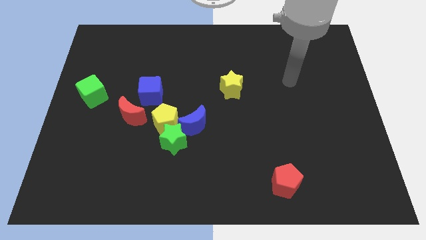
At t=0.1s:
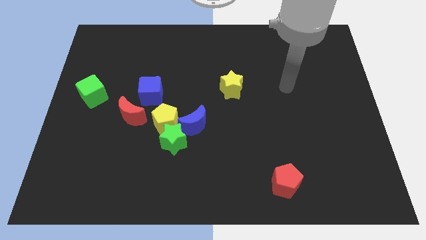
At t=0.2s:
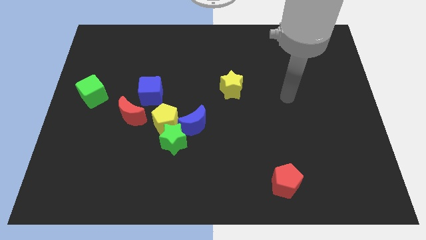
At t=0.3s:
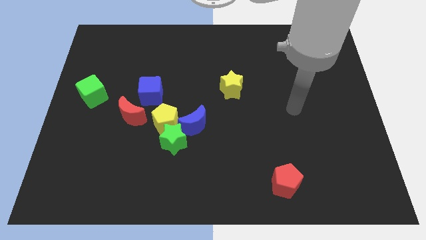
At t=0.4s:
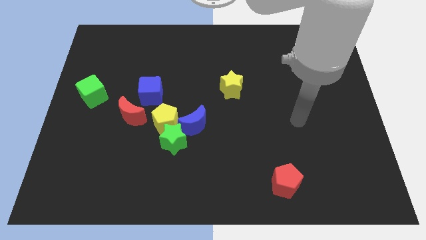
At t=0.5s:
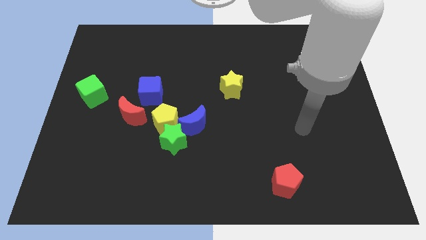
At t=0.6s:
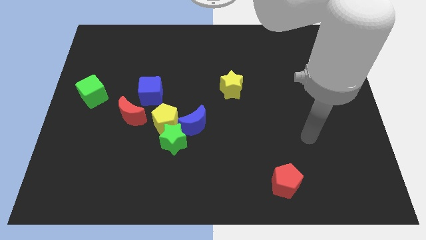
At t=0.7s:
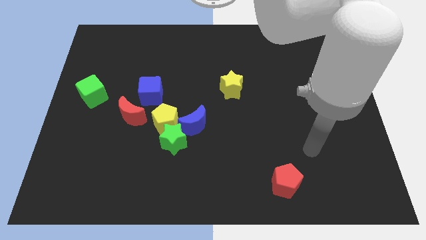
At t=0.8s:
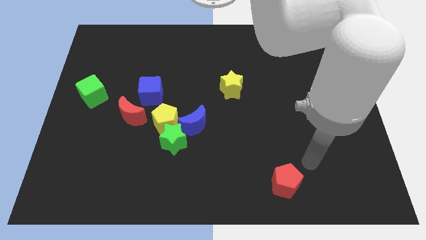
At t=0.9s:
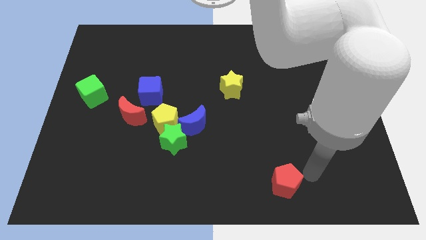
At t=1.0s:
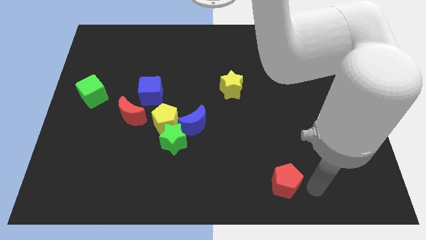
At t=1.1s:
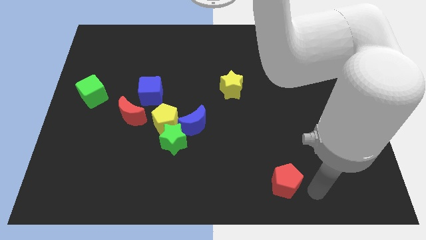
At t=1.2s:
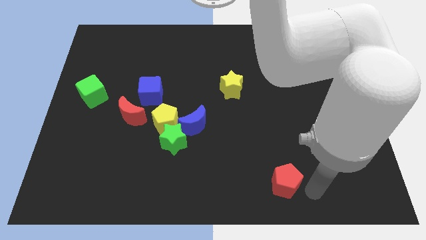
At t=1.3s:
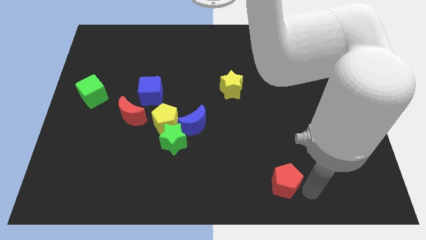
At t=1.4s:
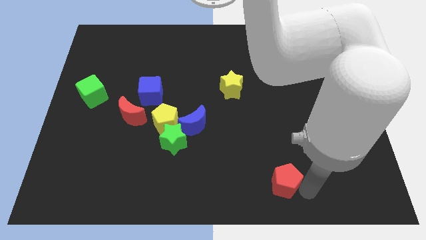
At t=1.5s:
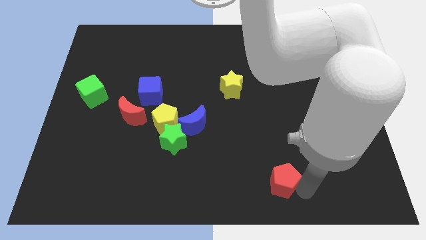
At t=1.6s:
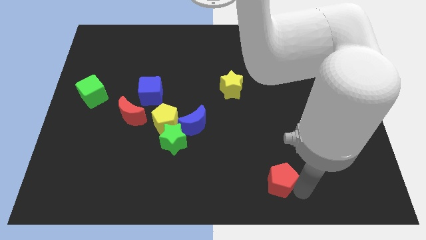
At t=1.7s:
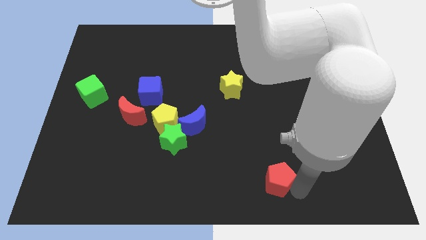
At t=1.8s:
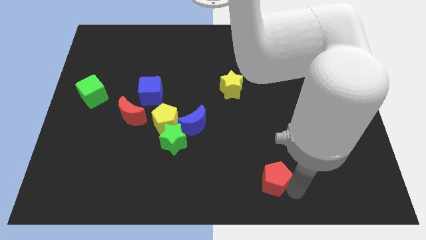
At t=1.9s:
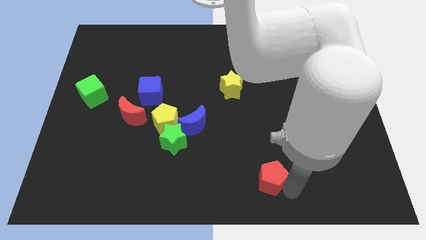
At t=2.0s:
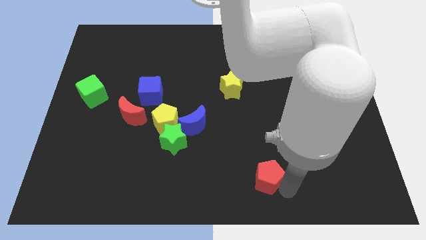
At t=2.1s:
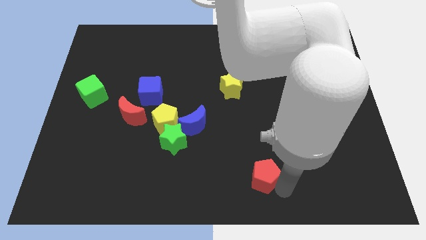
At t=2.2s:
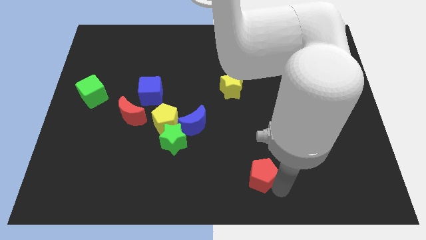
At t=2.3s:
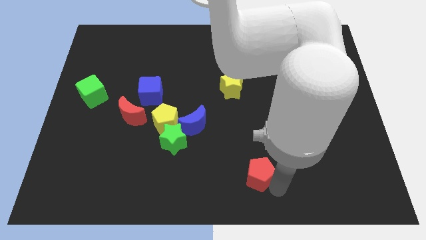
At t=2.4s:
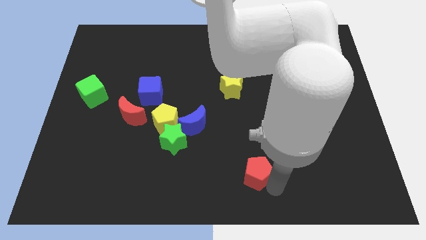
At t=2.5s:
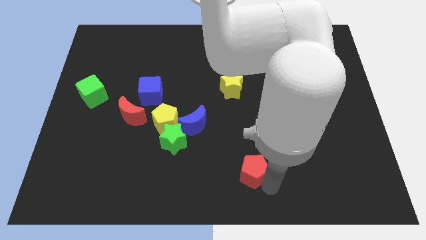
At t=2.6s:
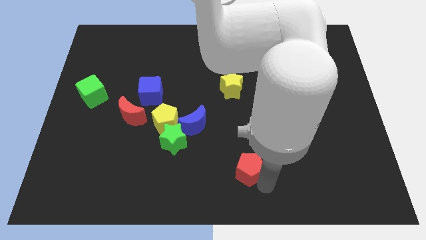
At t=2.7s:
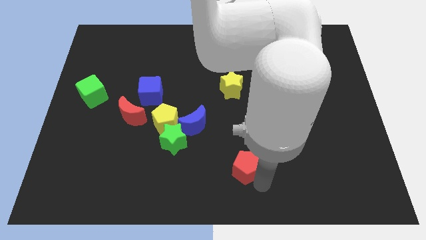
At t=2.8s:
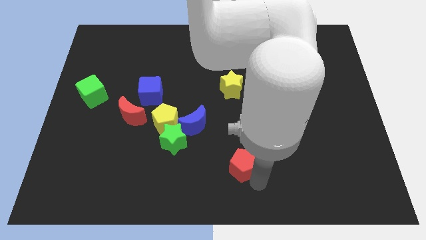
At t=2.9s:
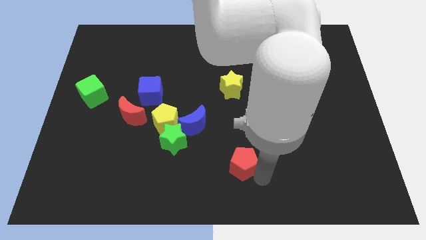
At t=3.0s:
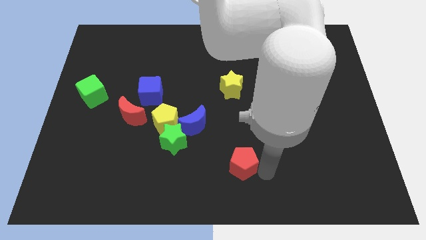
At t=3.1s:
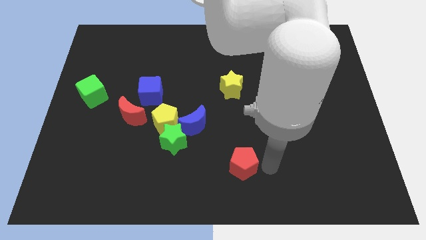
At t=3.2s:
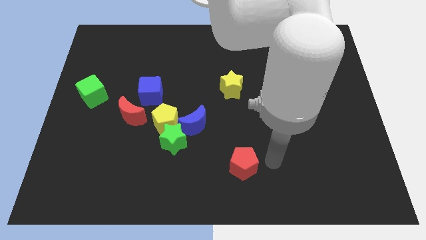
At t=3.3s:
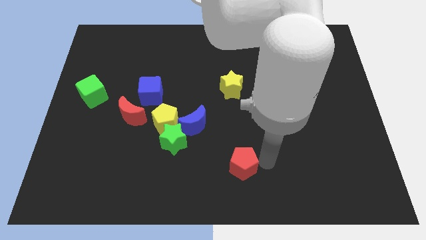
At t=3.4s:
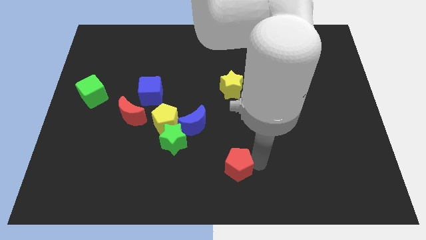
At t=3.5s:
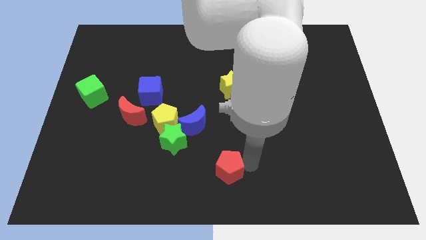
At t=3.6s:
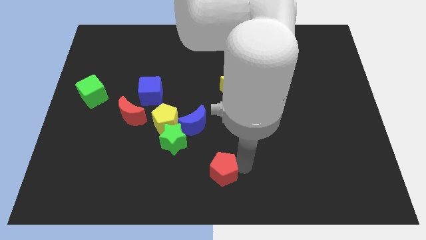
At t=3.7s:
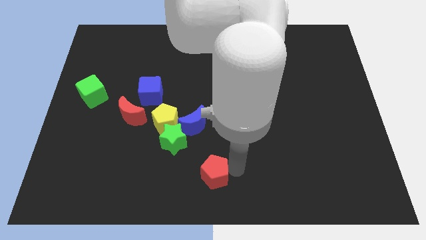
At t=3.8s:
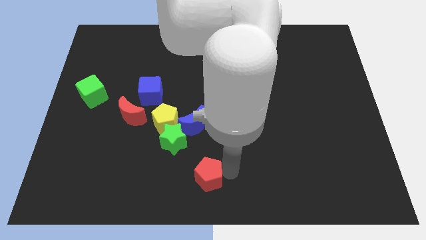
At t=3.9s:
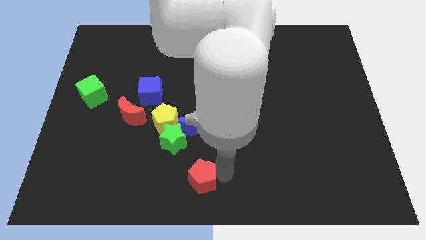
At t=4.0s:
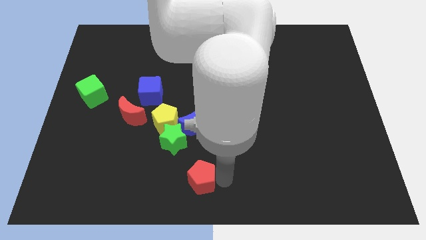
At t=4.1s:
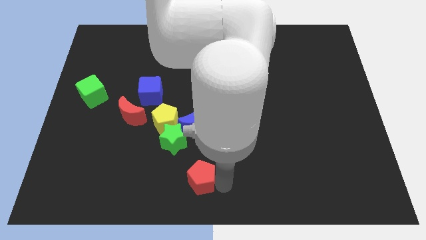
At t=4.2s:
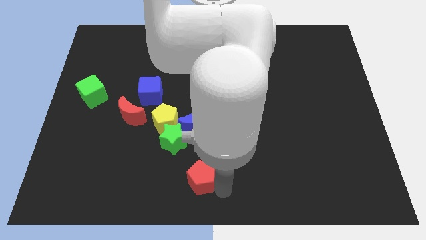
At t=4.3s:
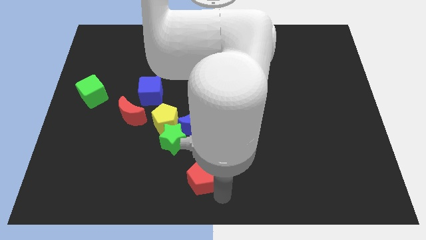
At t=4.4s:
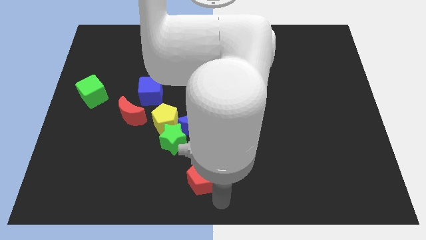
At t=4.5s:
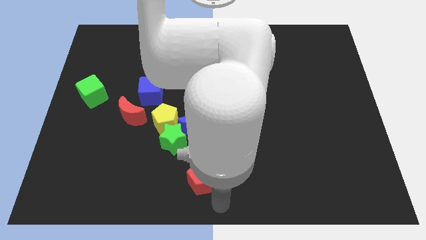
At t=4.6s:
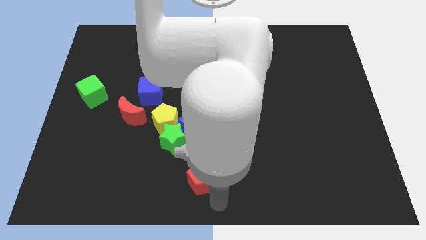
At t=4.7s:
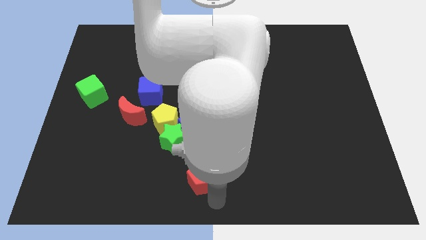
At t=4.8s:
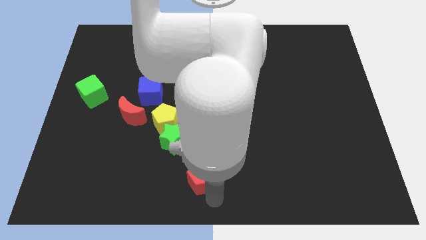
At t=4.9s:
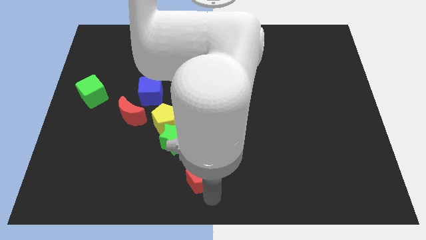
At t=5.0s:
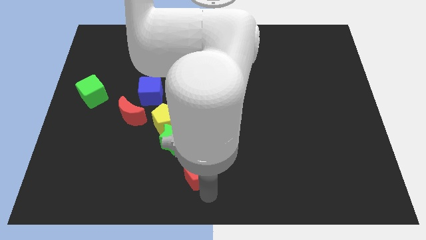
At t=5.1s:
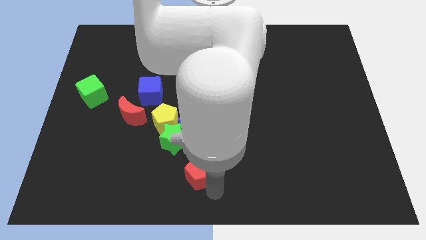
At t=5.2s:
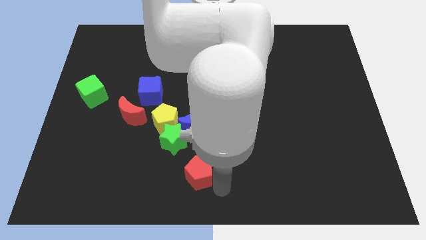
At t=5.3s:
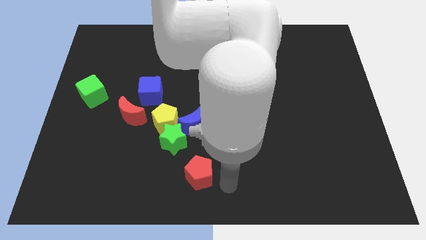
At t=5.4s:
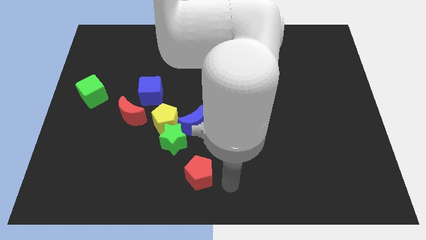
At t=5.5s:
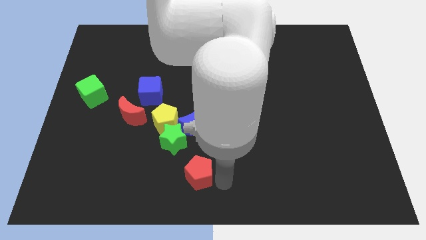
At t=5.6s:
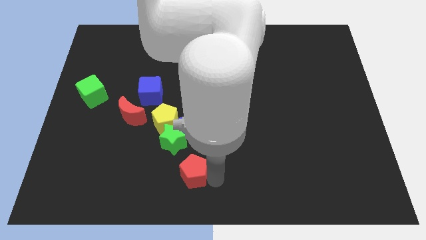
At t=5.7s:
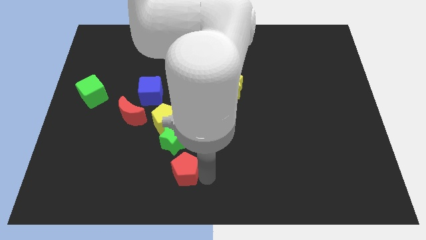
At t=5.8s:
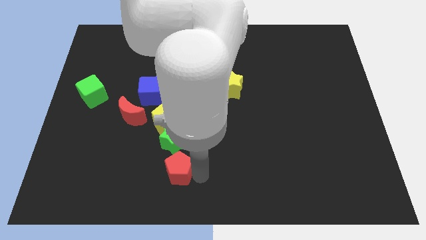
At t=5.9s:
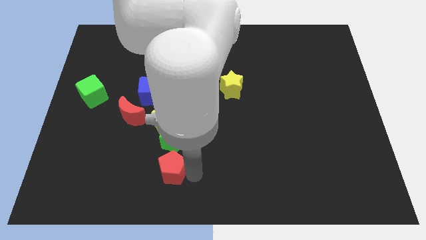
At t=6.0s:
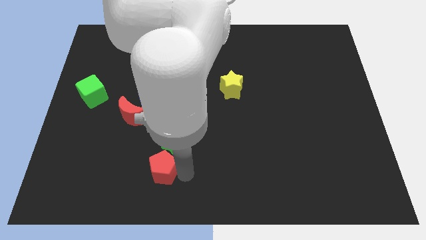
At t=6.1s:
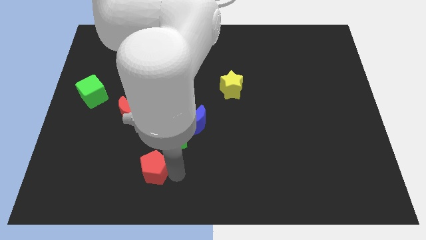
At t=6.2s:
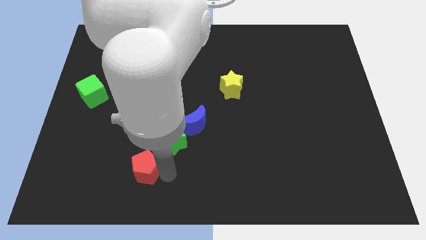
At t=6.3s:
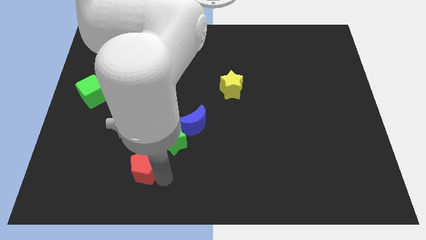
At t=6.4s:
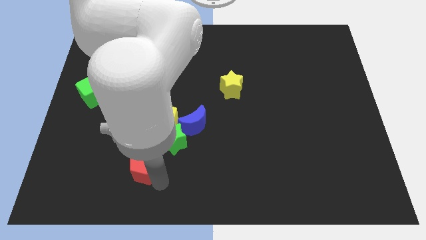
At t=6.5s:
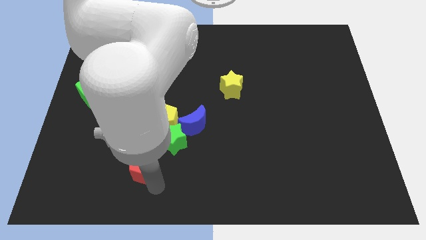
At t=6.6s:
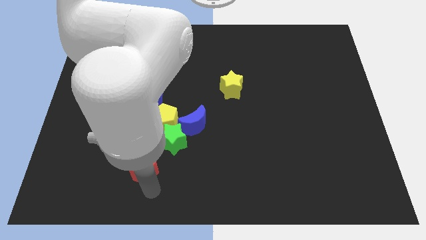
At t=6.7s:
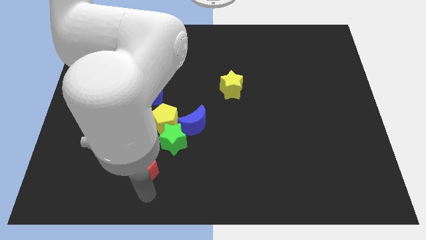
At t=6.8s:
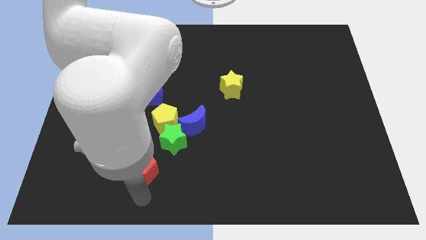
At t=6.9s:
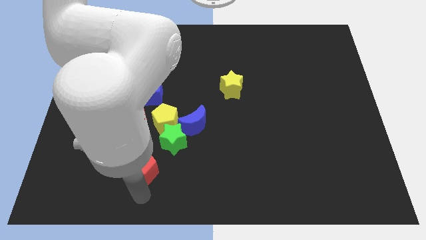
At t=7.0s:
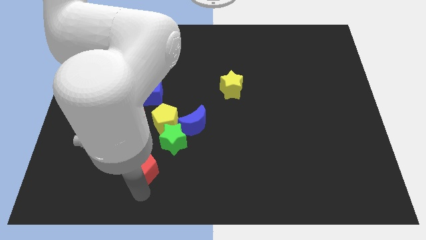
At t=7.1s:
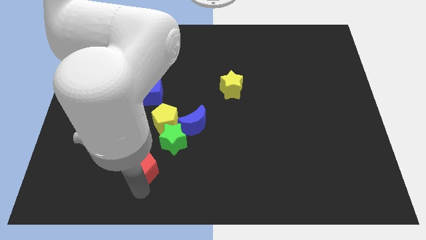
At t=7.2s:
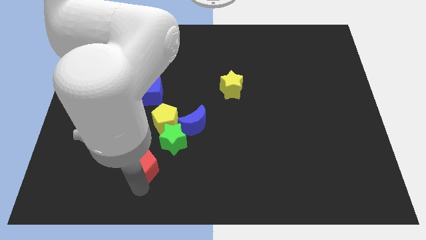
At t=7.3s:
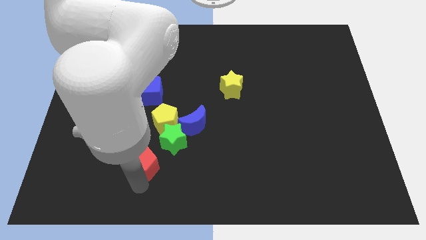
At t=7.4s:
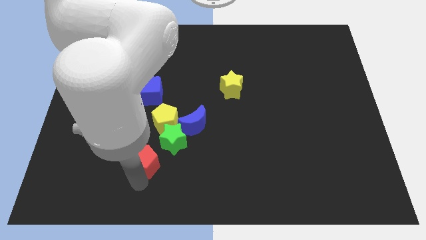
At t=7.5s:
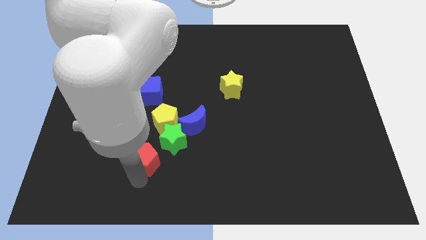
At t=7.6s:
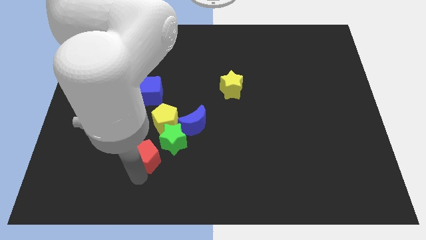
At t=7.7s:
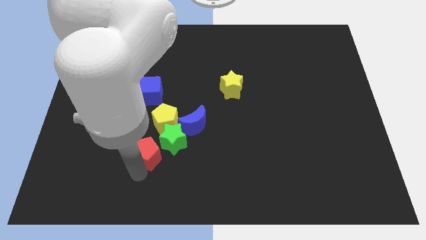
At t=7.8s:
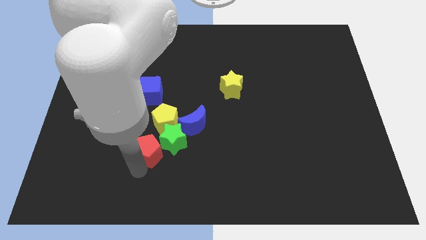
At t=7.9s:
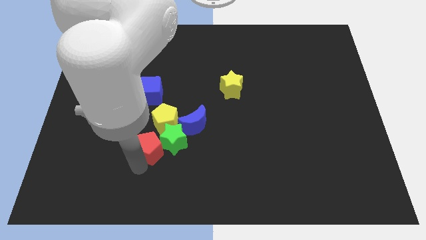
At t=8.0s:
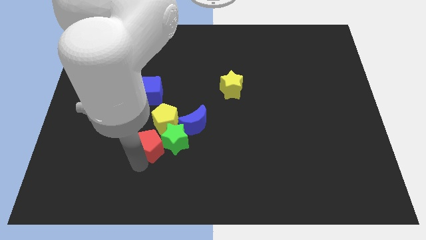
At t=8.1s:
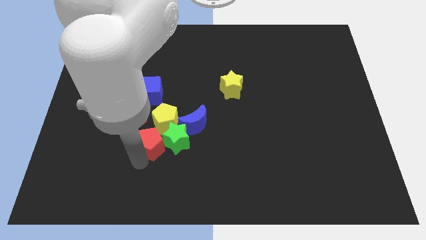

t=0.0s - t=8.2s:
move the red pentagon diagonally up and to the left of the green star
